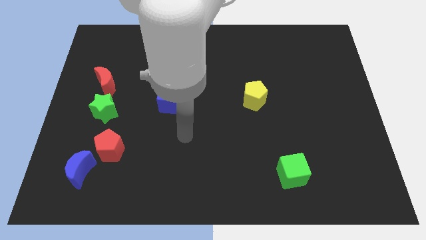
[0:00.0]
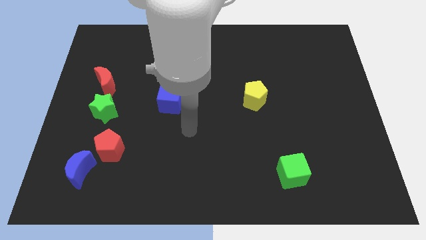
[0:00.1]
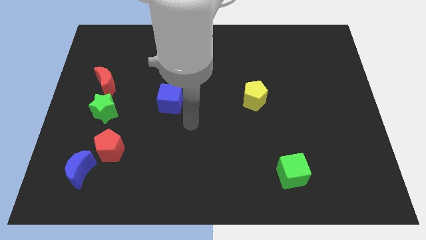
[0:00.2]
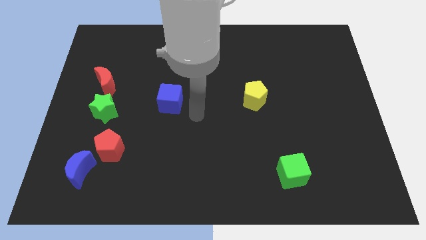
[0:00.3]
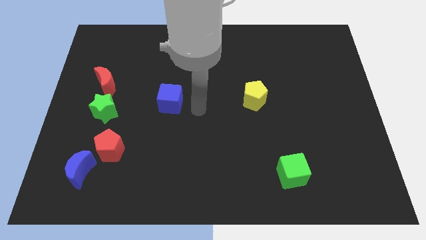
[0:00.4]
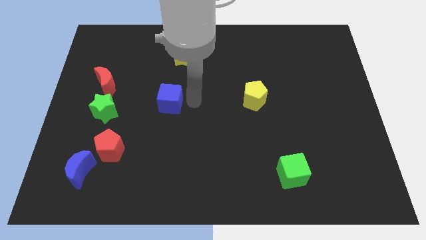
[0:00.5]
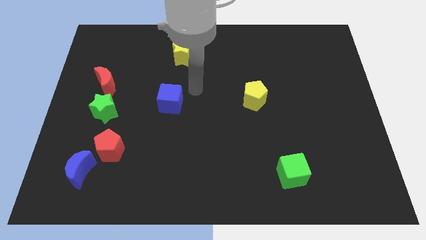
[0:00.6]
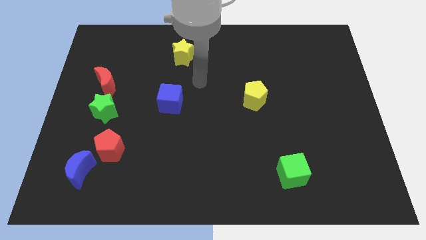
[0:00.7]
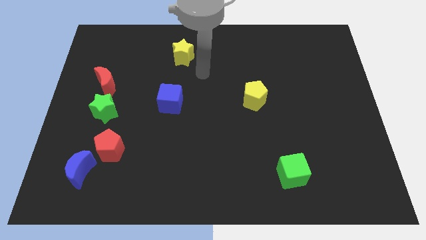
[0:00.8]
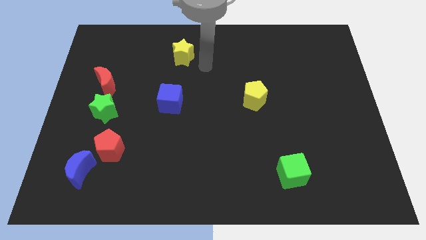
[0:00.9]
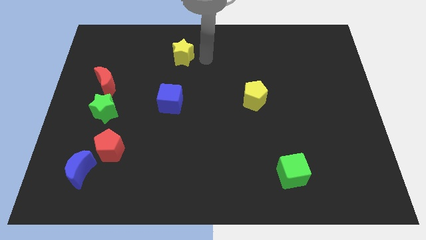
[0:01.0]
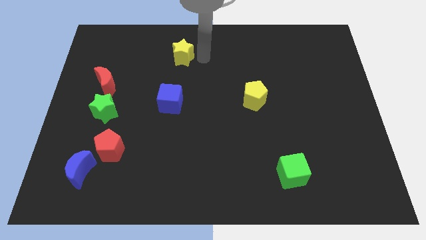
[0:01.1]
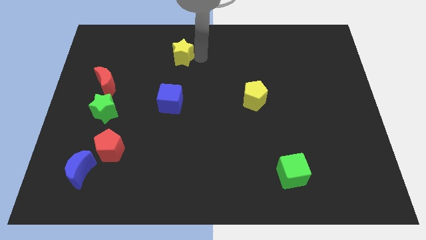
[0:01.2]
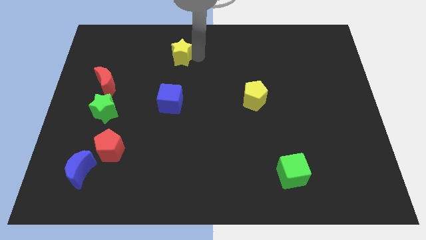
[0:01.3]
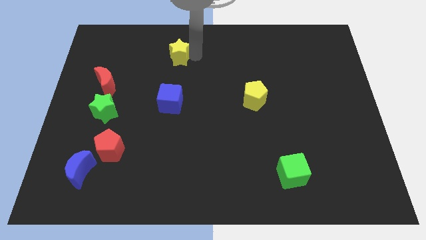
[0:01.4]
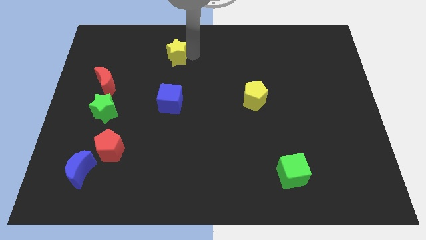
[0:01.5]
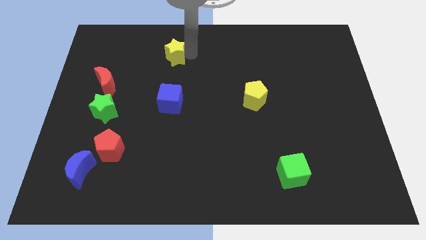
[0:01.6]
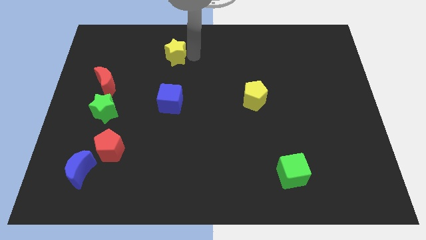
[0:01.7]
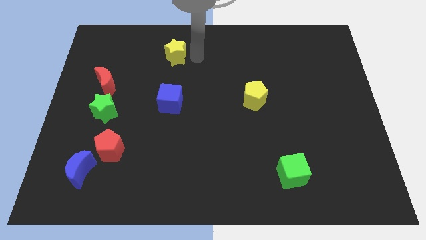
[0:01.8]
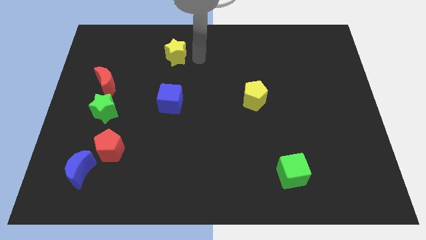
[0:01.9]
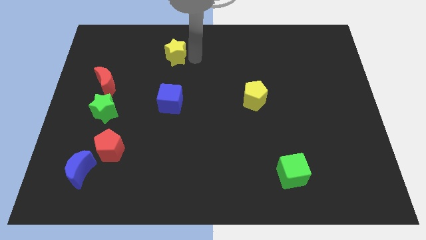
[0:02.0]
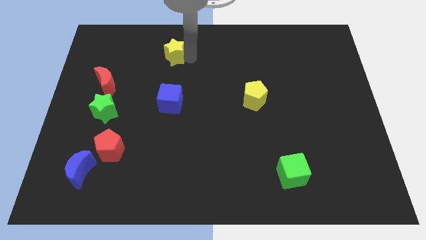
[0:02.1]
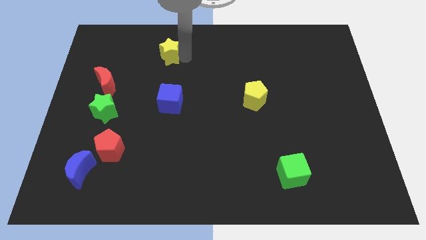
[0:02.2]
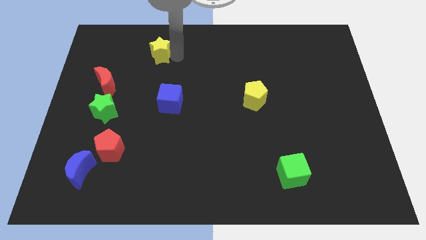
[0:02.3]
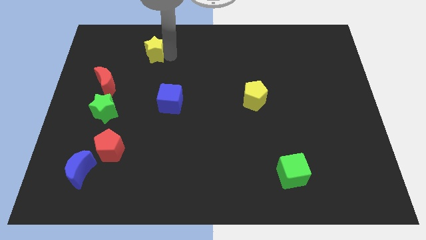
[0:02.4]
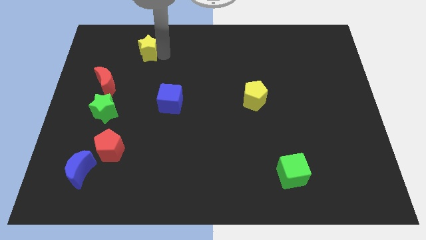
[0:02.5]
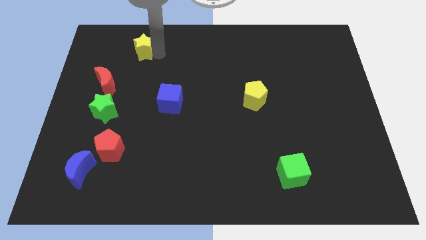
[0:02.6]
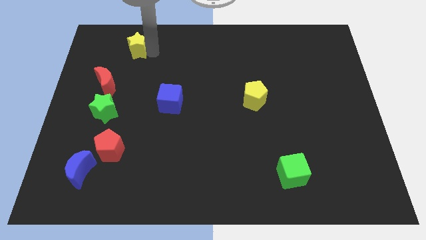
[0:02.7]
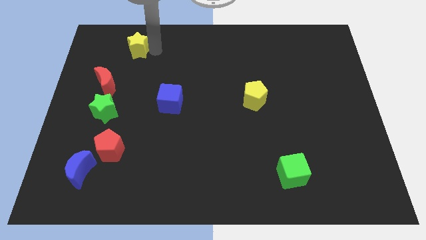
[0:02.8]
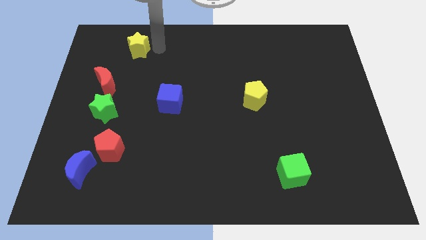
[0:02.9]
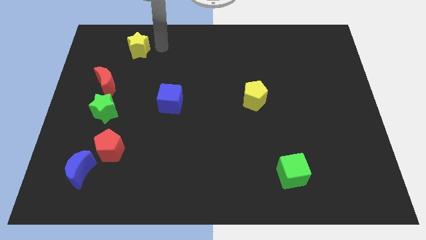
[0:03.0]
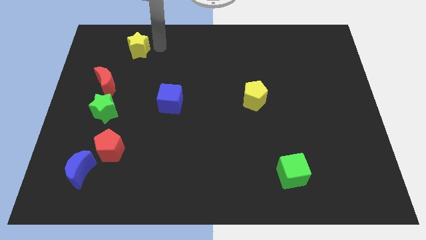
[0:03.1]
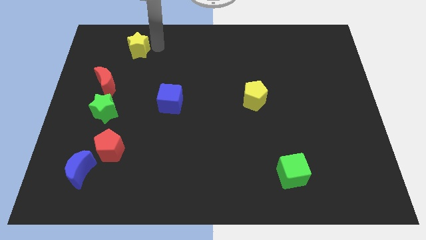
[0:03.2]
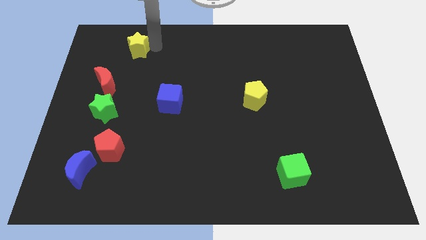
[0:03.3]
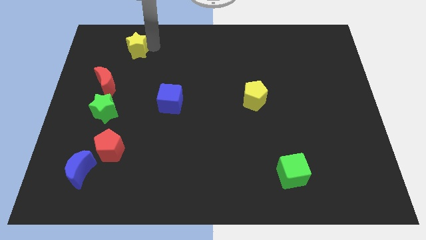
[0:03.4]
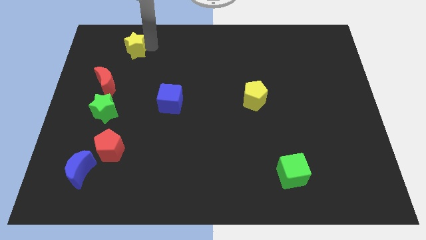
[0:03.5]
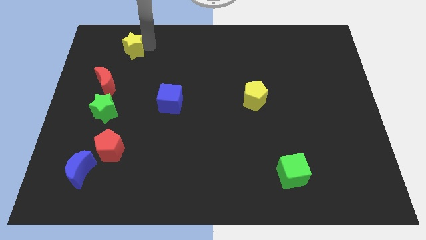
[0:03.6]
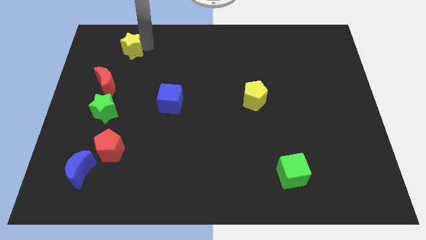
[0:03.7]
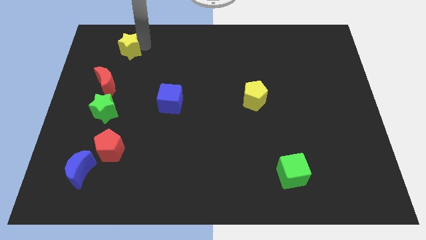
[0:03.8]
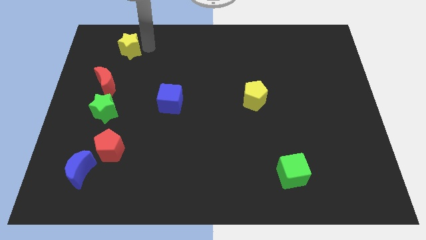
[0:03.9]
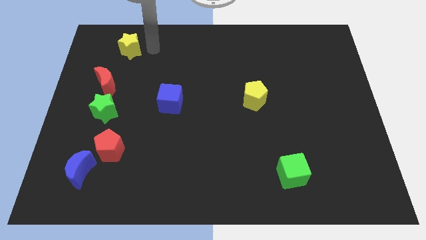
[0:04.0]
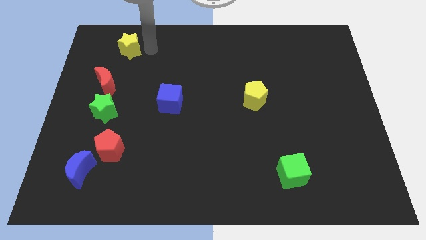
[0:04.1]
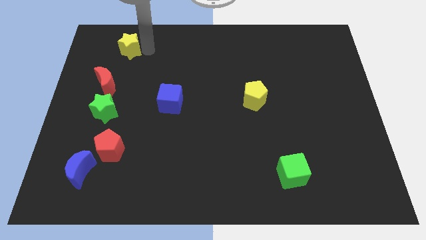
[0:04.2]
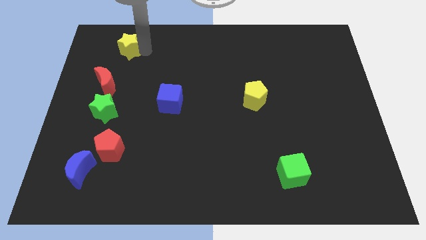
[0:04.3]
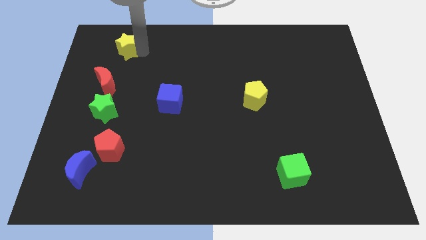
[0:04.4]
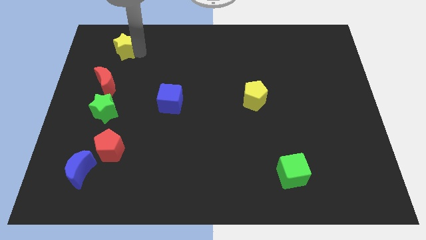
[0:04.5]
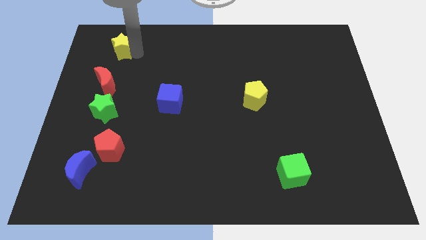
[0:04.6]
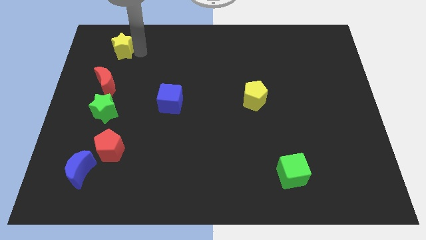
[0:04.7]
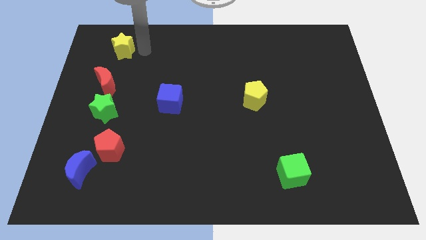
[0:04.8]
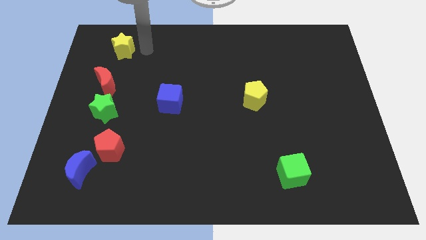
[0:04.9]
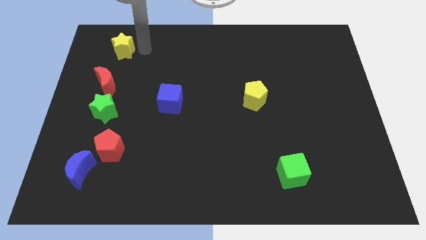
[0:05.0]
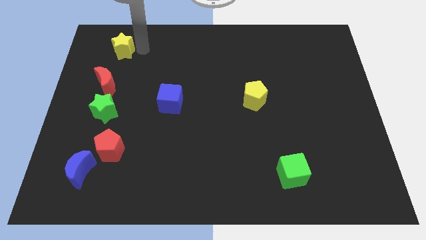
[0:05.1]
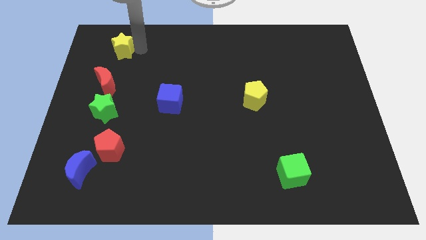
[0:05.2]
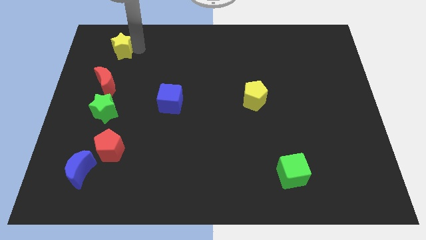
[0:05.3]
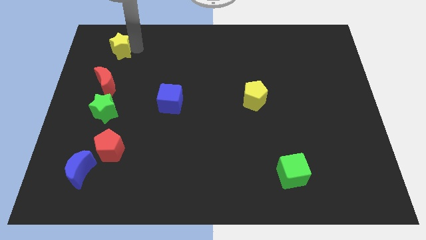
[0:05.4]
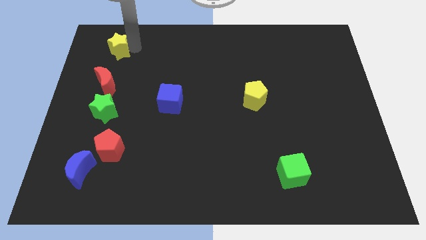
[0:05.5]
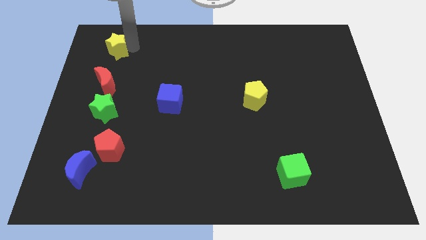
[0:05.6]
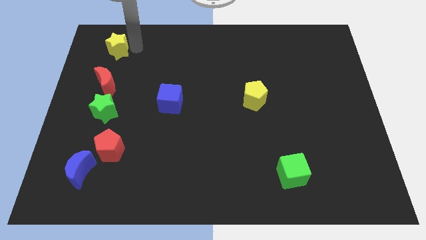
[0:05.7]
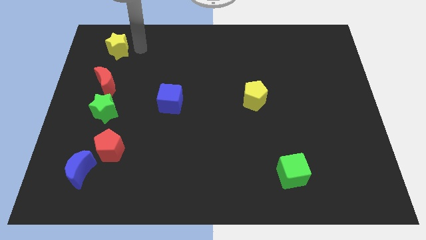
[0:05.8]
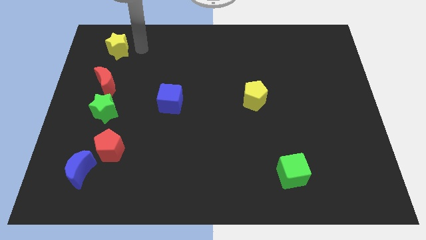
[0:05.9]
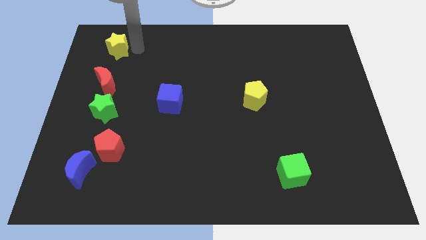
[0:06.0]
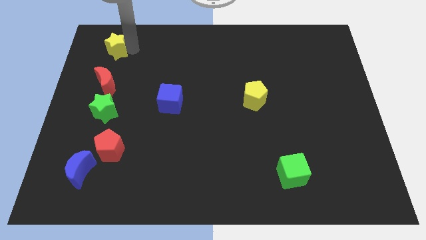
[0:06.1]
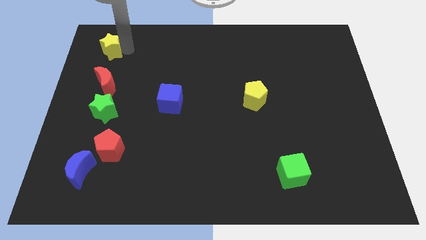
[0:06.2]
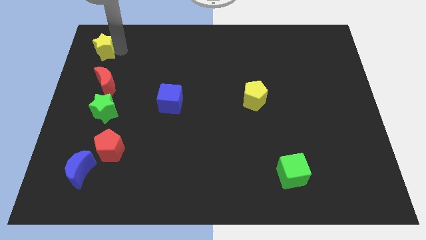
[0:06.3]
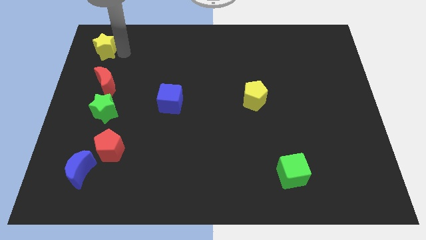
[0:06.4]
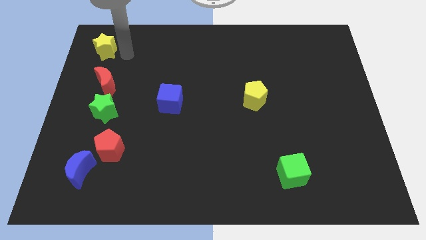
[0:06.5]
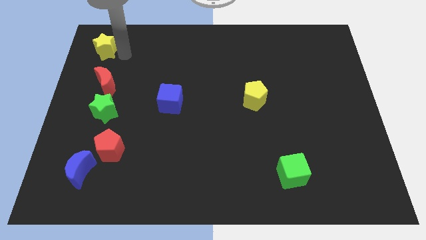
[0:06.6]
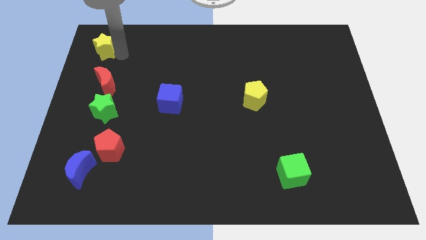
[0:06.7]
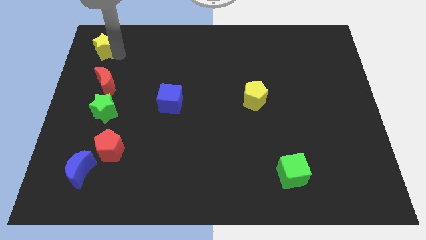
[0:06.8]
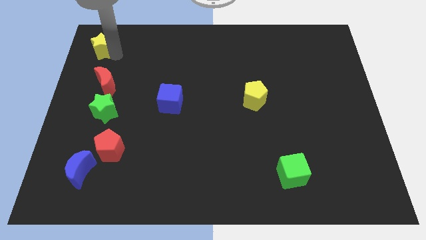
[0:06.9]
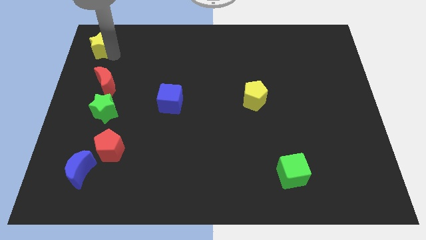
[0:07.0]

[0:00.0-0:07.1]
move the yellow star to the top left of the board
